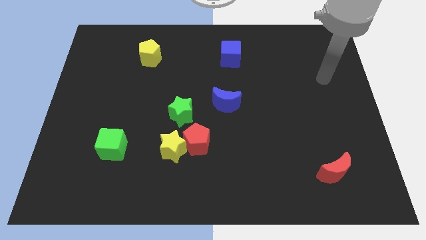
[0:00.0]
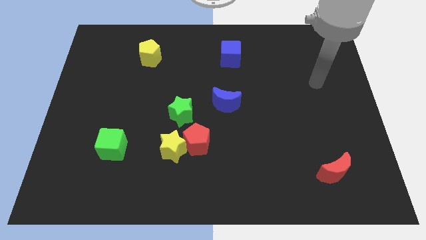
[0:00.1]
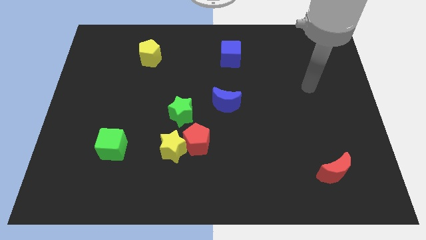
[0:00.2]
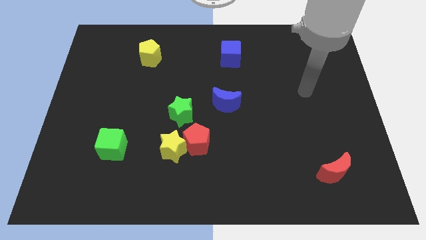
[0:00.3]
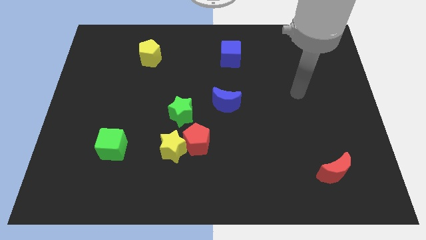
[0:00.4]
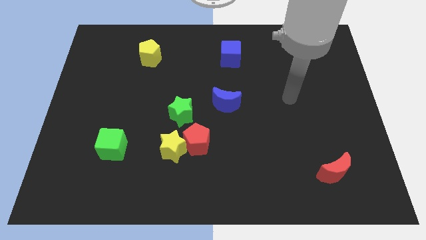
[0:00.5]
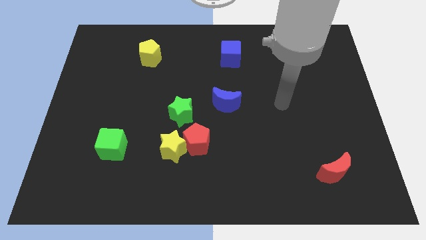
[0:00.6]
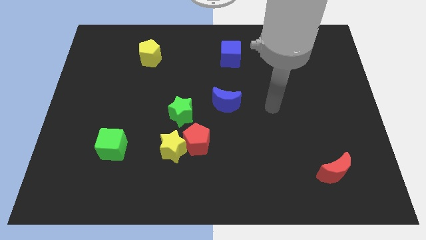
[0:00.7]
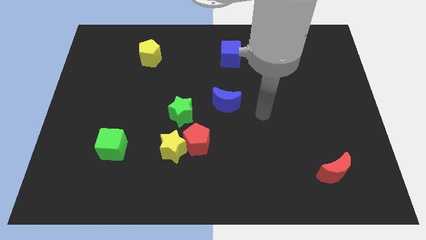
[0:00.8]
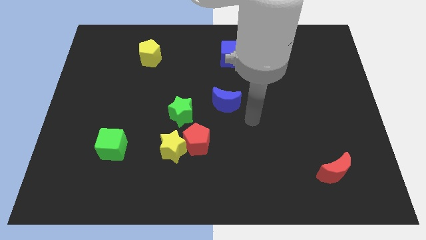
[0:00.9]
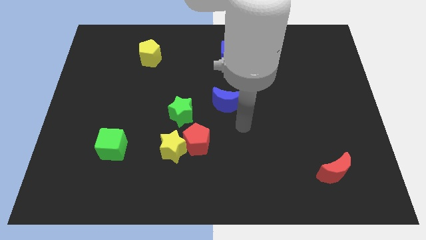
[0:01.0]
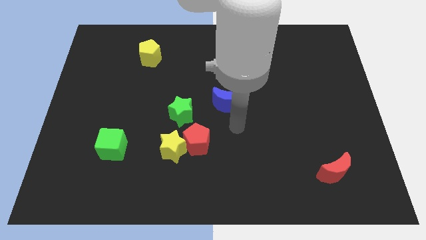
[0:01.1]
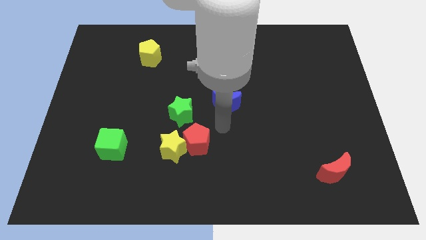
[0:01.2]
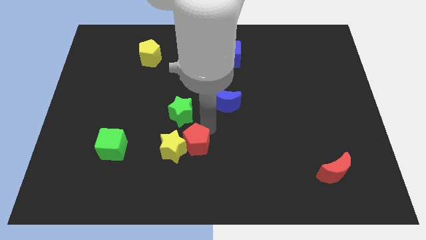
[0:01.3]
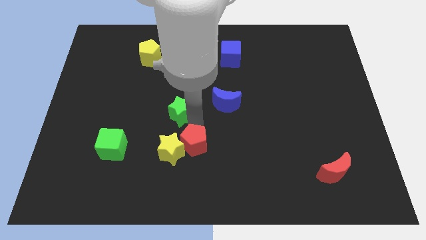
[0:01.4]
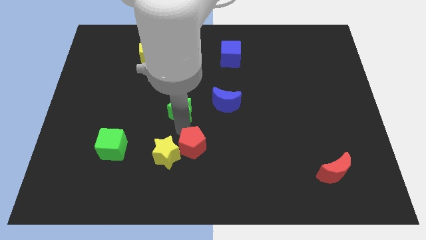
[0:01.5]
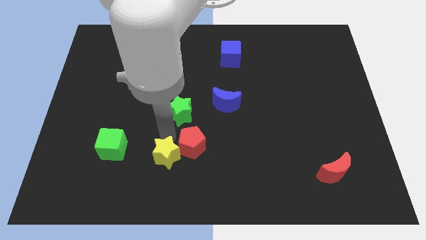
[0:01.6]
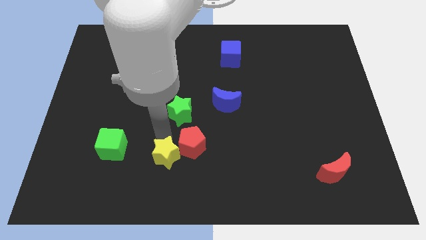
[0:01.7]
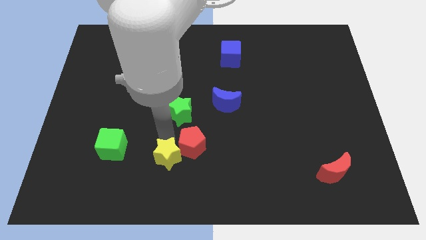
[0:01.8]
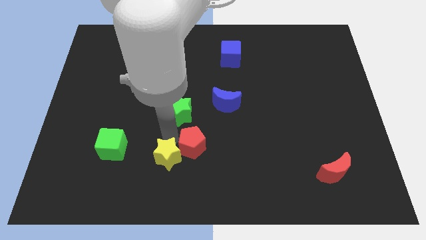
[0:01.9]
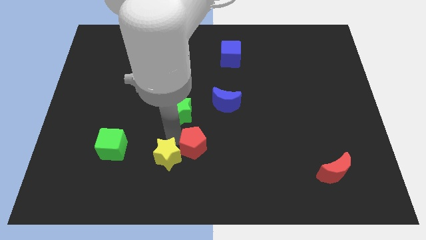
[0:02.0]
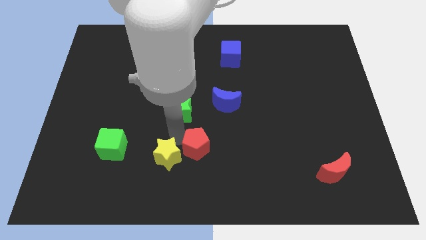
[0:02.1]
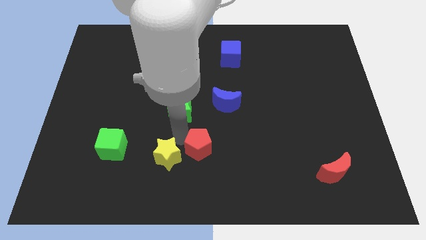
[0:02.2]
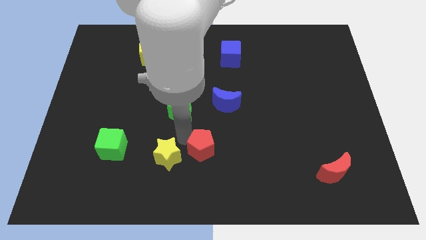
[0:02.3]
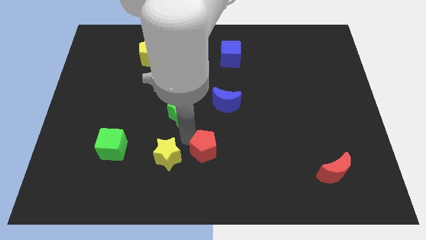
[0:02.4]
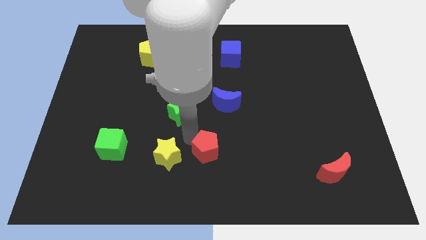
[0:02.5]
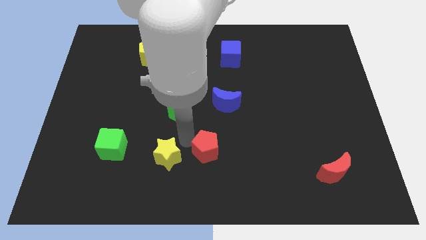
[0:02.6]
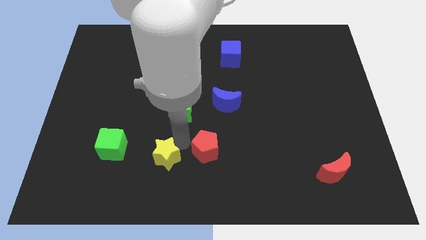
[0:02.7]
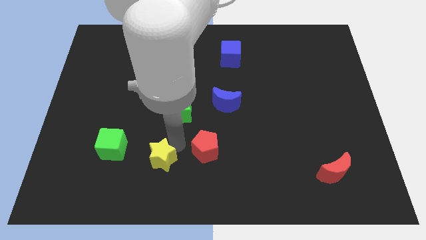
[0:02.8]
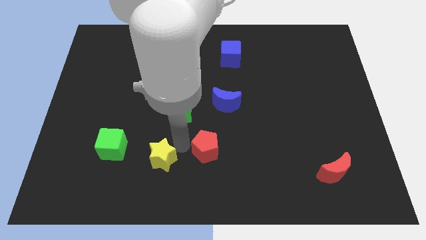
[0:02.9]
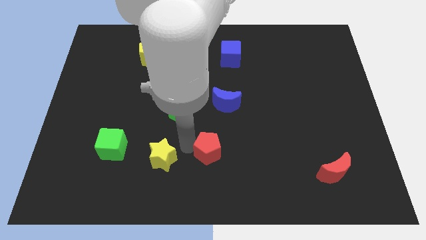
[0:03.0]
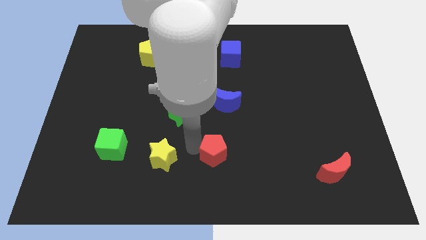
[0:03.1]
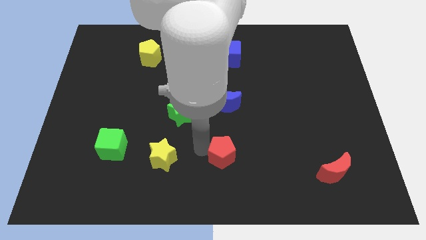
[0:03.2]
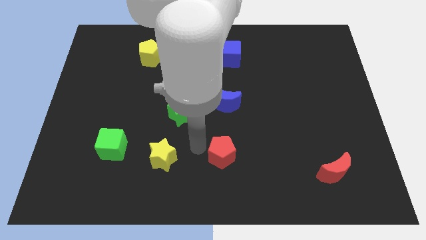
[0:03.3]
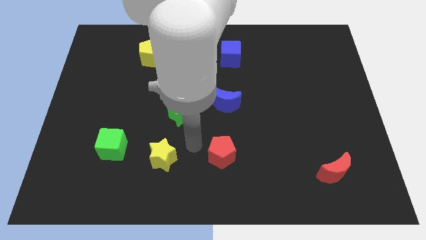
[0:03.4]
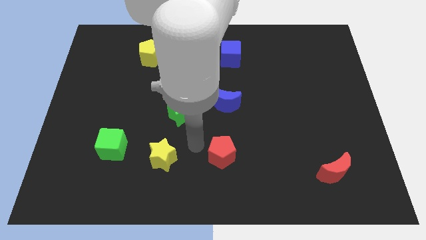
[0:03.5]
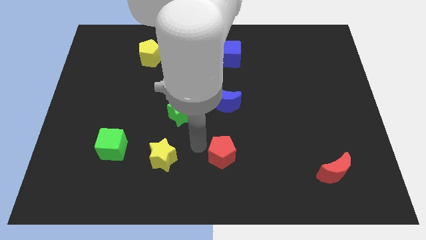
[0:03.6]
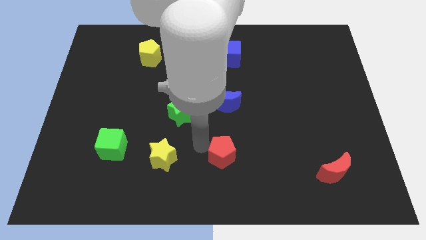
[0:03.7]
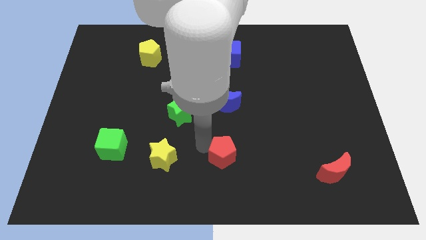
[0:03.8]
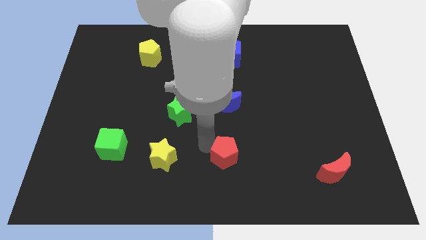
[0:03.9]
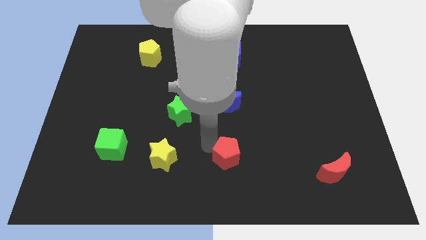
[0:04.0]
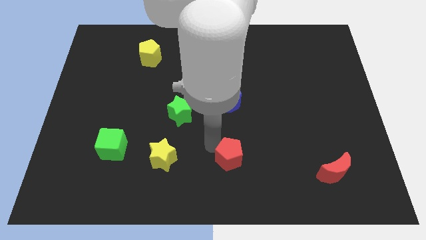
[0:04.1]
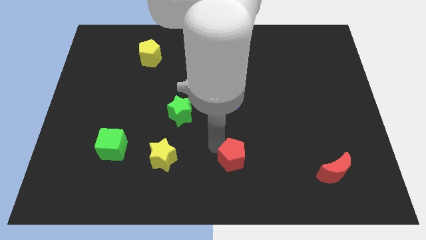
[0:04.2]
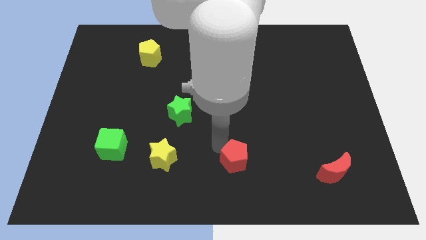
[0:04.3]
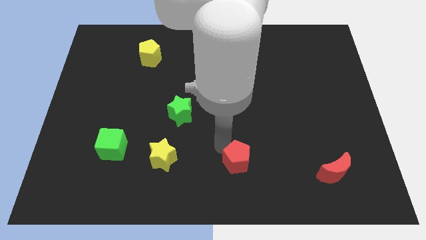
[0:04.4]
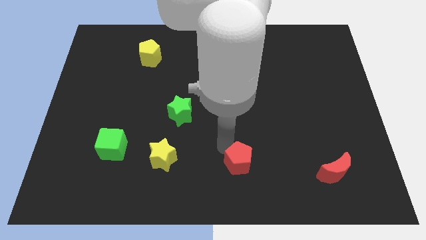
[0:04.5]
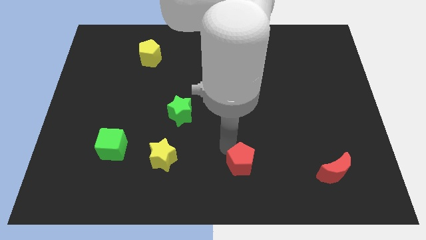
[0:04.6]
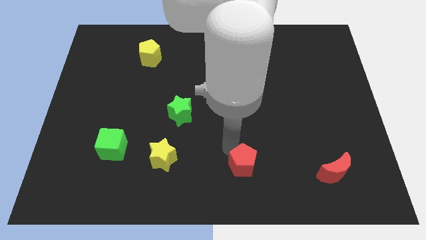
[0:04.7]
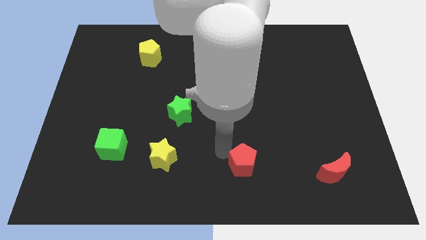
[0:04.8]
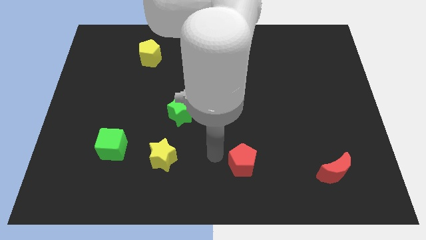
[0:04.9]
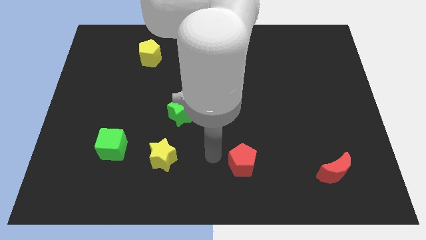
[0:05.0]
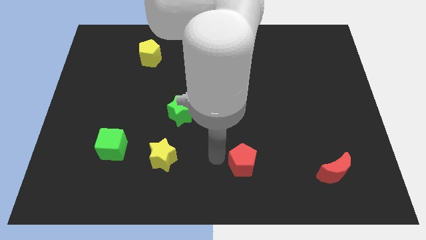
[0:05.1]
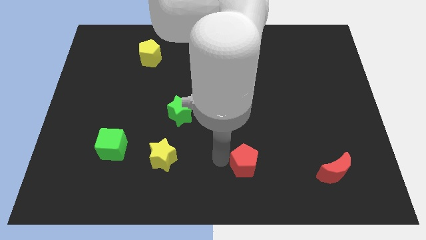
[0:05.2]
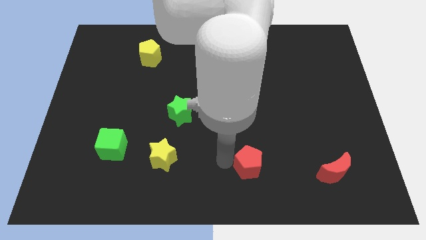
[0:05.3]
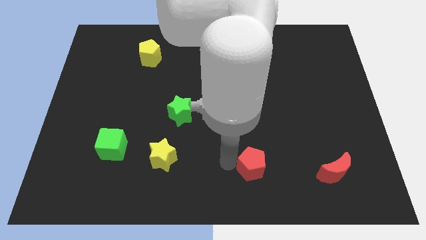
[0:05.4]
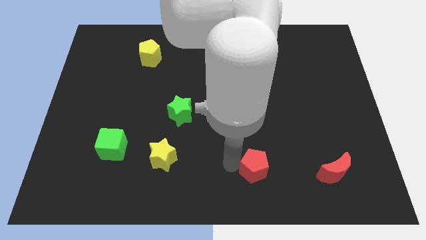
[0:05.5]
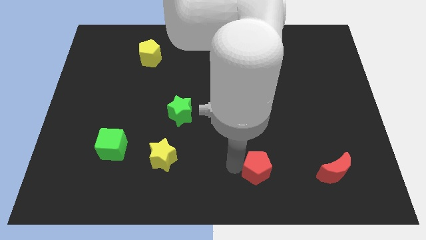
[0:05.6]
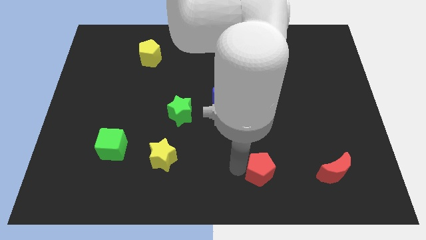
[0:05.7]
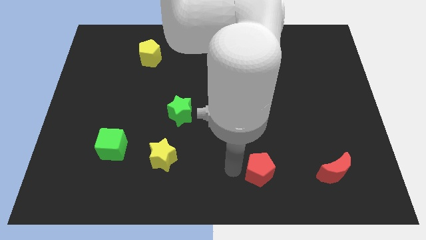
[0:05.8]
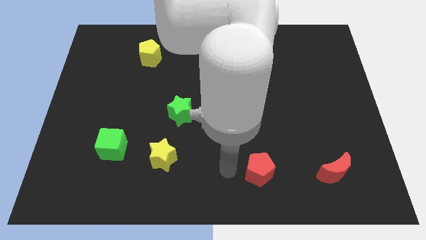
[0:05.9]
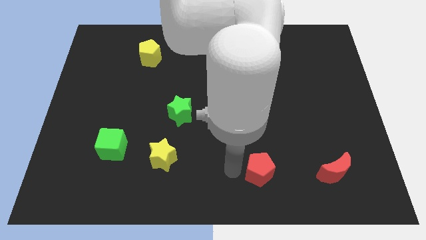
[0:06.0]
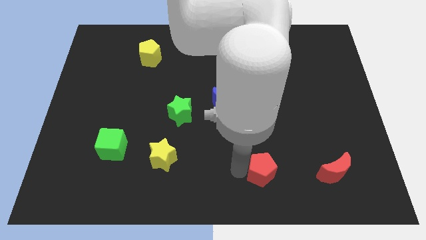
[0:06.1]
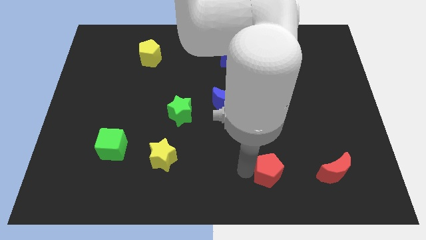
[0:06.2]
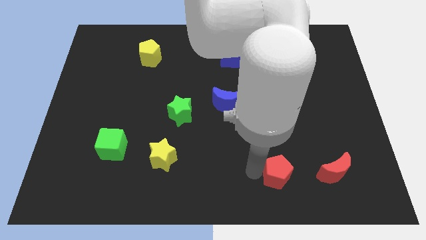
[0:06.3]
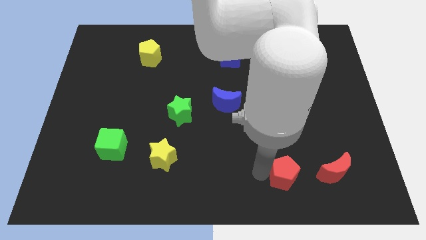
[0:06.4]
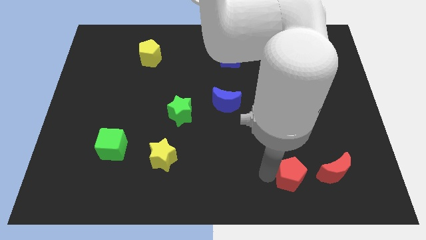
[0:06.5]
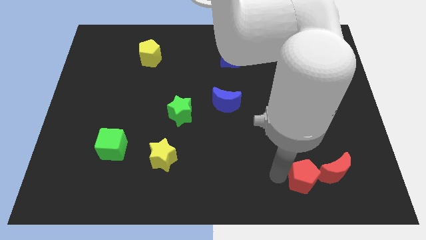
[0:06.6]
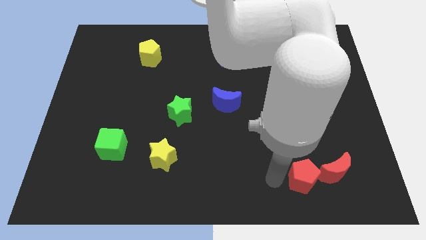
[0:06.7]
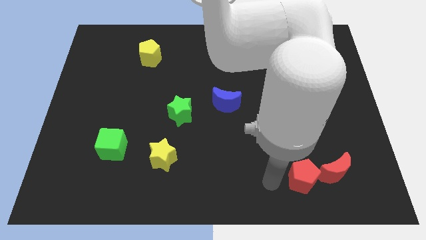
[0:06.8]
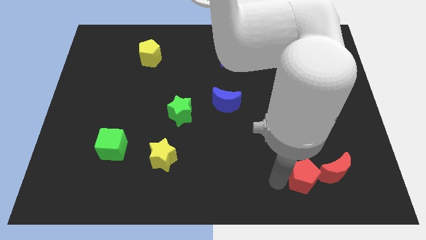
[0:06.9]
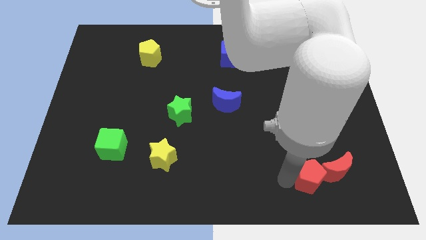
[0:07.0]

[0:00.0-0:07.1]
push the red pentagon to the red moon

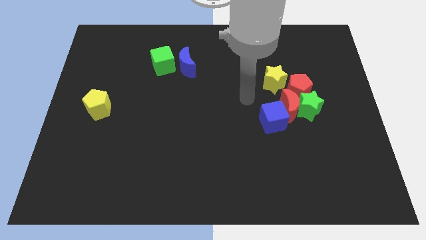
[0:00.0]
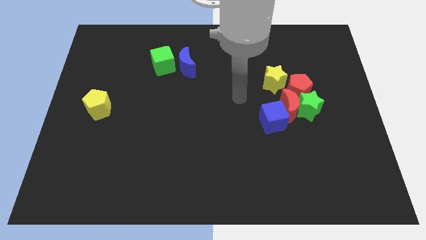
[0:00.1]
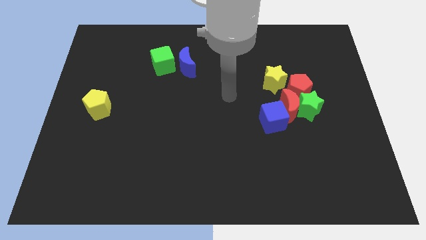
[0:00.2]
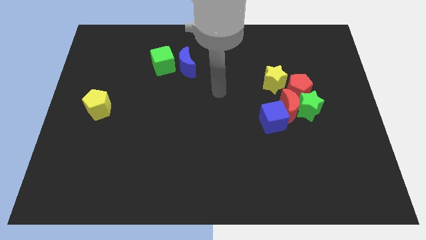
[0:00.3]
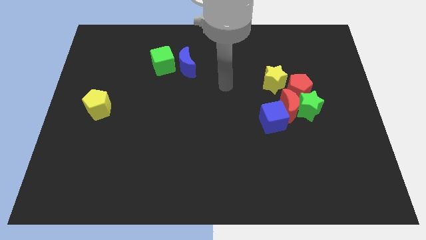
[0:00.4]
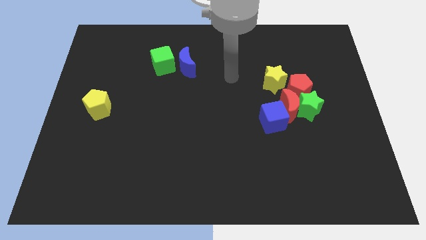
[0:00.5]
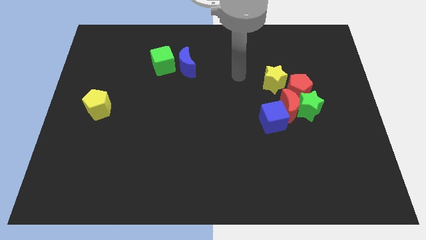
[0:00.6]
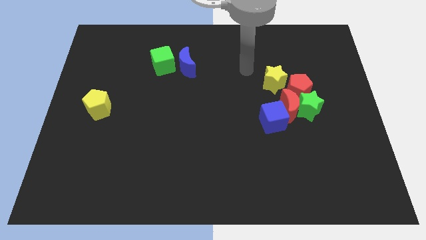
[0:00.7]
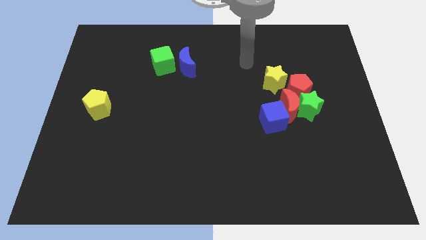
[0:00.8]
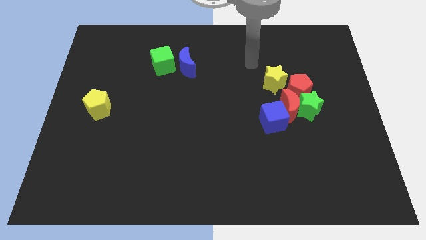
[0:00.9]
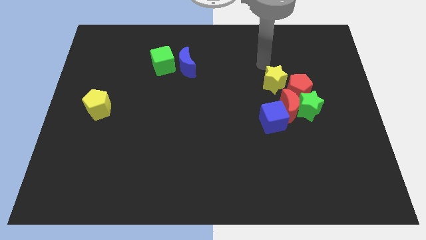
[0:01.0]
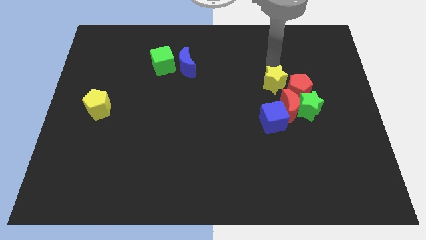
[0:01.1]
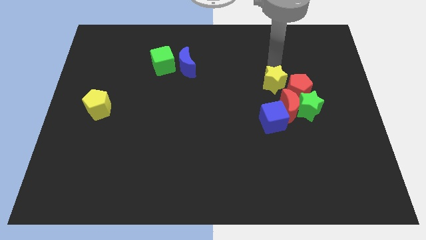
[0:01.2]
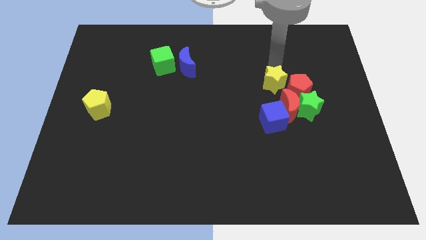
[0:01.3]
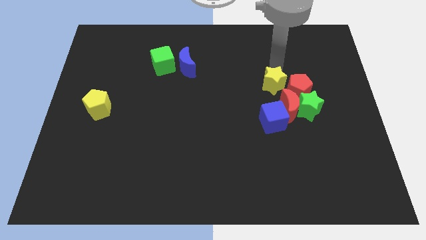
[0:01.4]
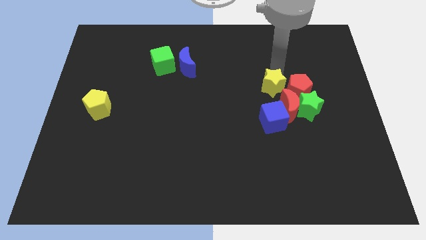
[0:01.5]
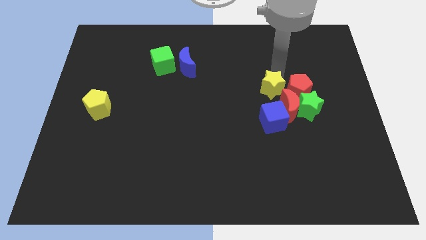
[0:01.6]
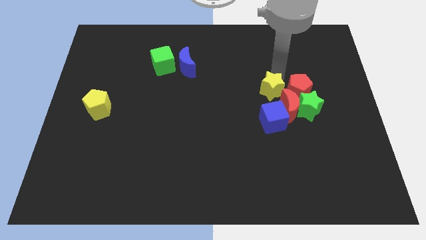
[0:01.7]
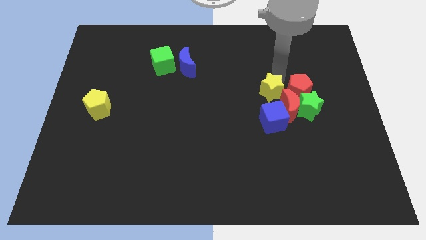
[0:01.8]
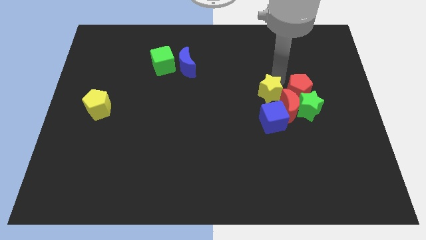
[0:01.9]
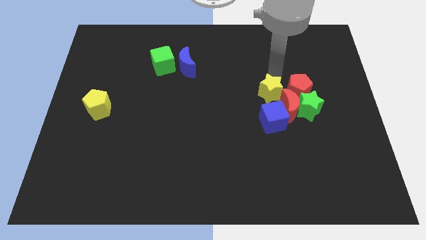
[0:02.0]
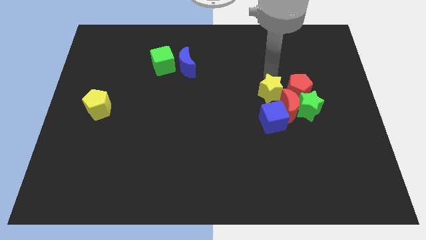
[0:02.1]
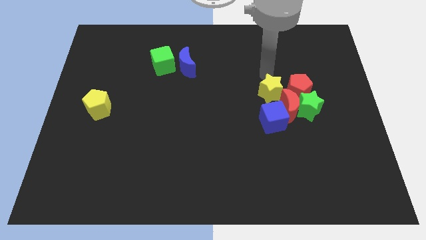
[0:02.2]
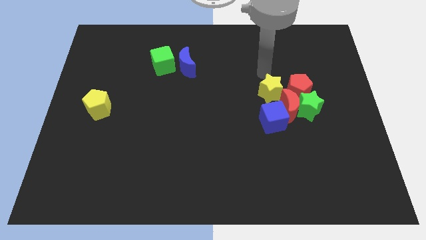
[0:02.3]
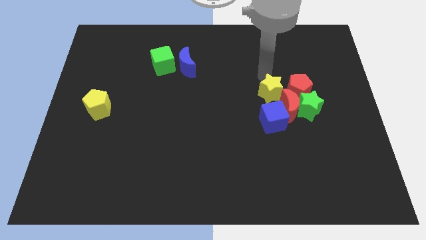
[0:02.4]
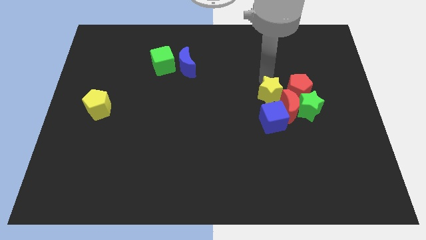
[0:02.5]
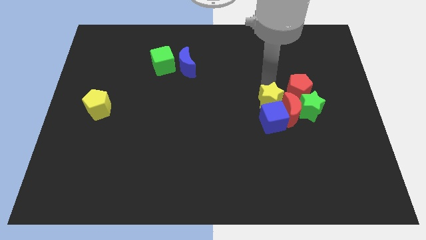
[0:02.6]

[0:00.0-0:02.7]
push the yellow star close to the blue cube
